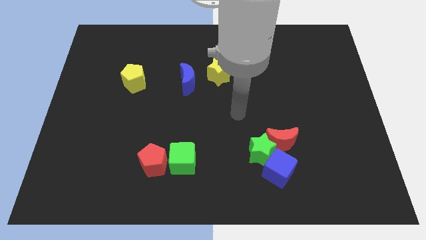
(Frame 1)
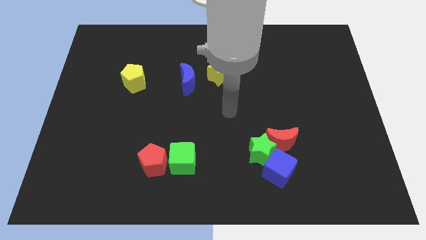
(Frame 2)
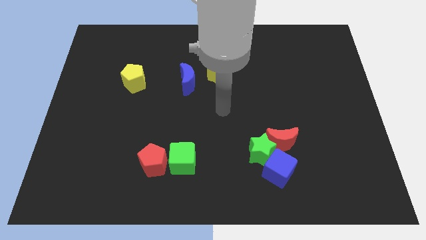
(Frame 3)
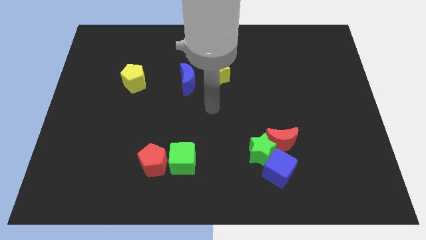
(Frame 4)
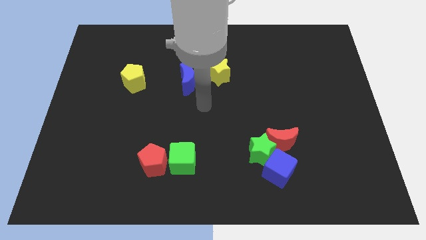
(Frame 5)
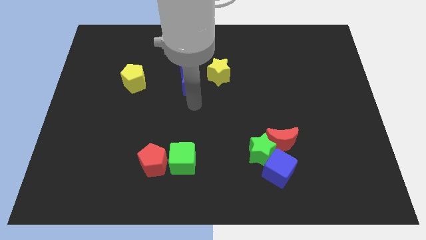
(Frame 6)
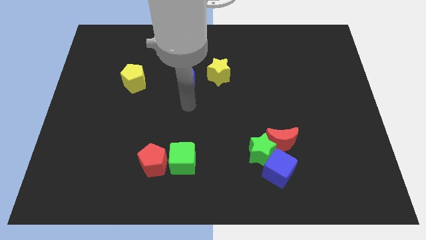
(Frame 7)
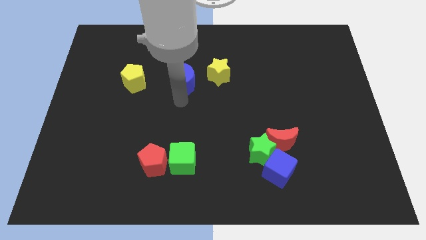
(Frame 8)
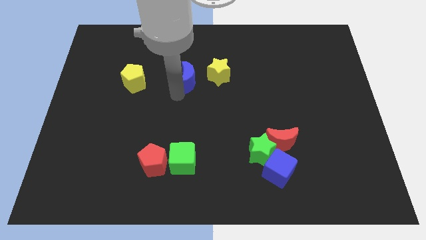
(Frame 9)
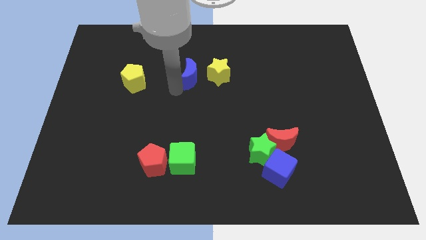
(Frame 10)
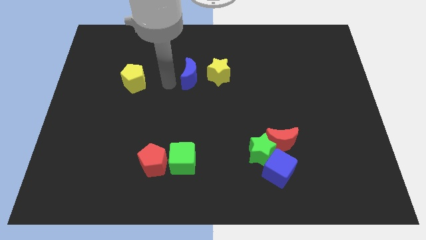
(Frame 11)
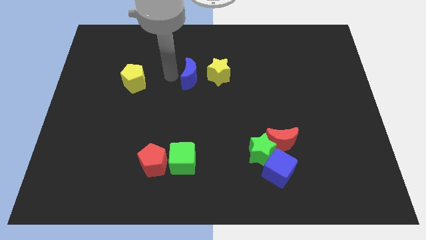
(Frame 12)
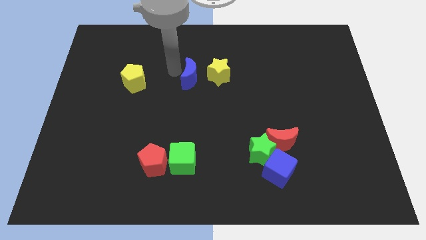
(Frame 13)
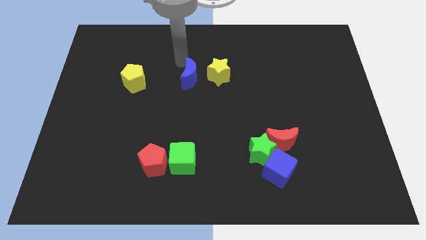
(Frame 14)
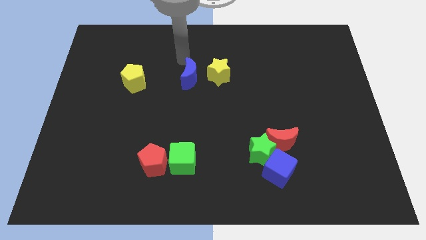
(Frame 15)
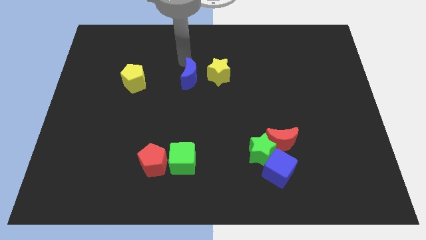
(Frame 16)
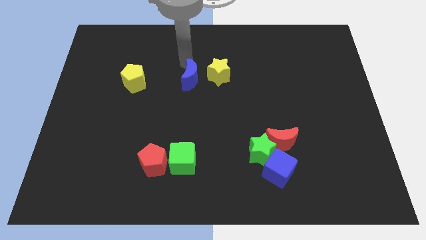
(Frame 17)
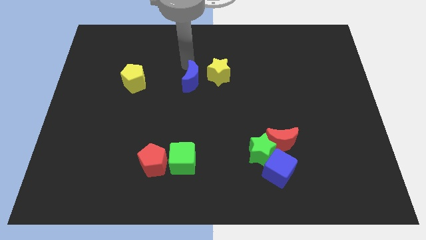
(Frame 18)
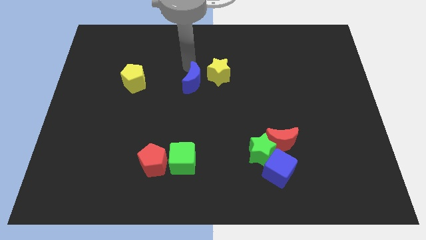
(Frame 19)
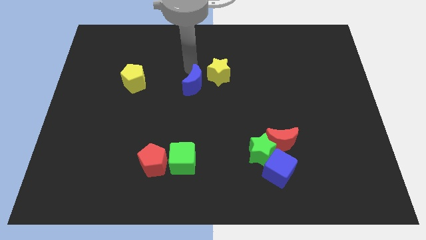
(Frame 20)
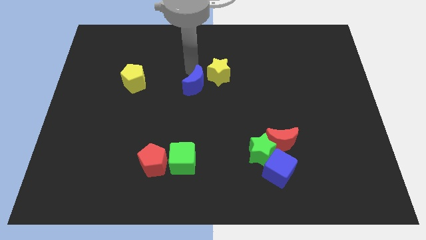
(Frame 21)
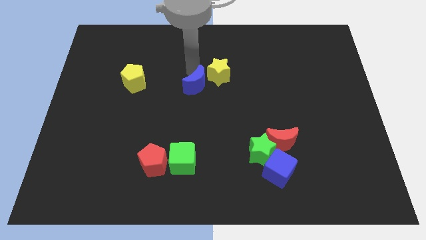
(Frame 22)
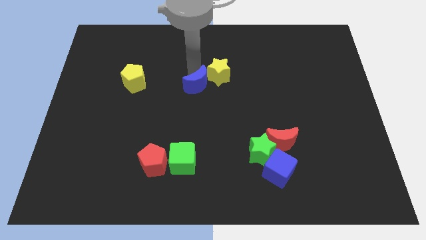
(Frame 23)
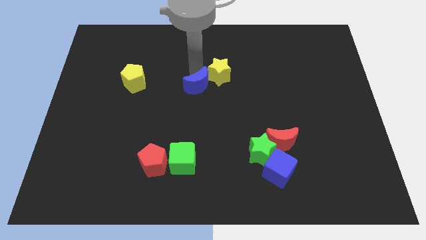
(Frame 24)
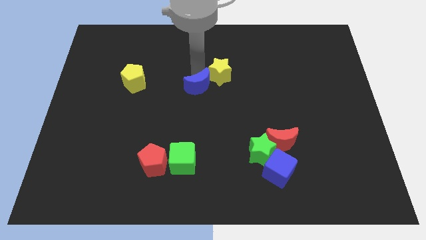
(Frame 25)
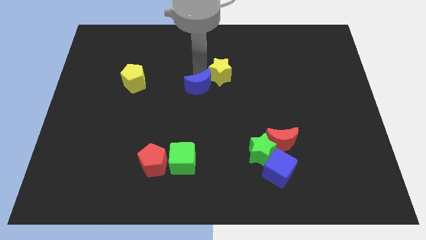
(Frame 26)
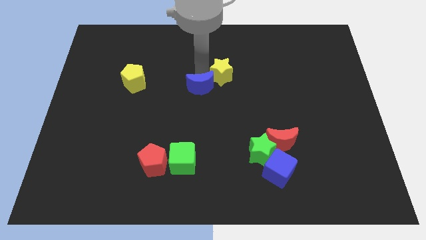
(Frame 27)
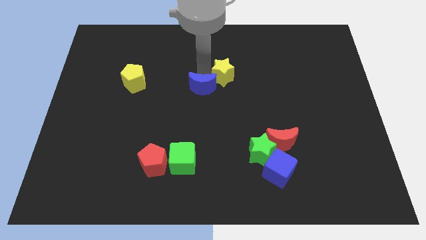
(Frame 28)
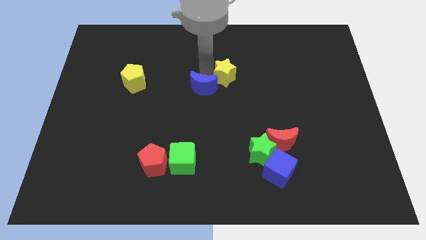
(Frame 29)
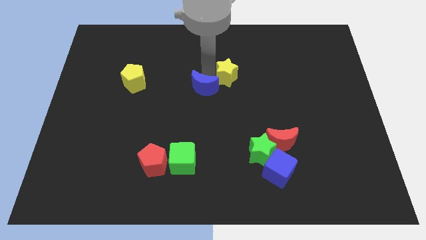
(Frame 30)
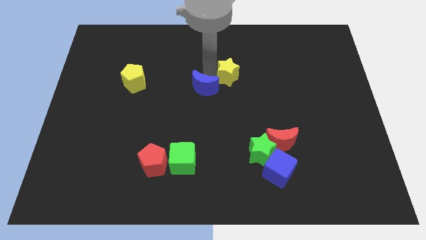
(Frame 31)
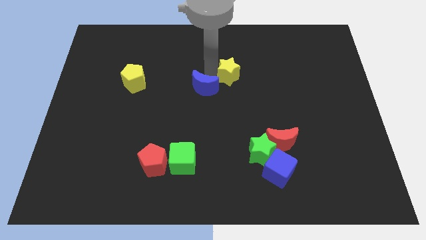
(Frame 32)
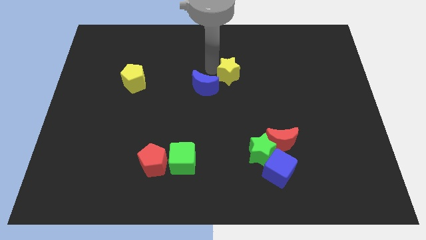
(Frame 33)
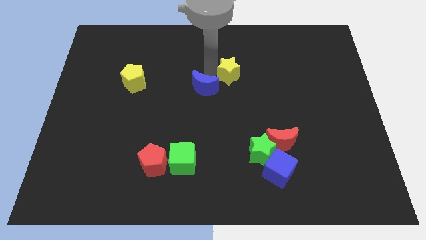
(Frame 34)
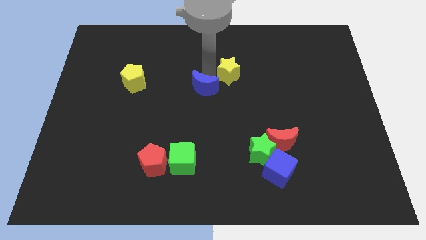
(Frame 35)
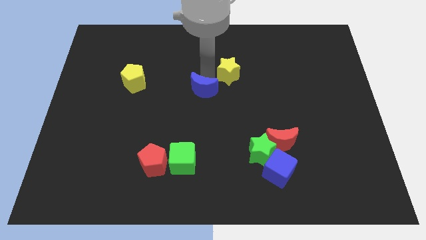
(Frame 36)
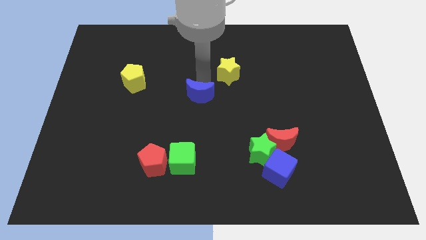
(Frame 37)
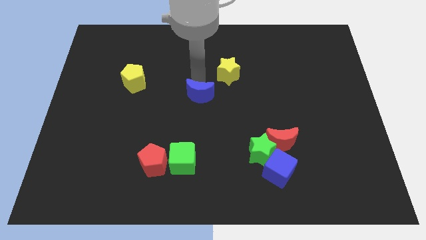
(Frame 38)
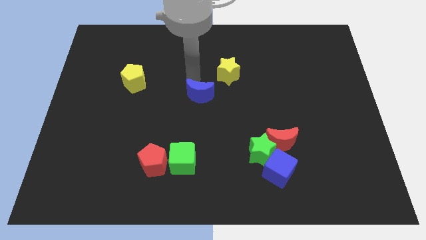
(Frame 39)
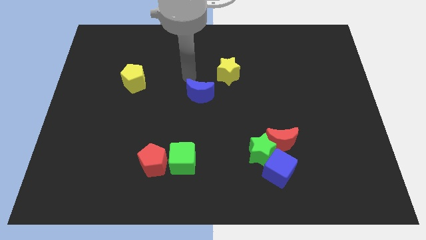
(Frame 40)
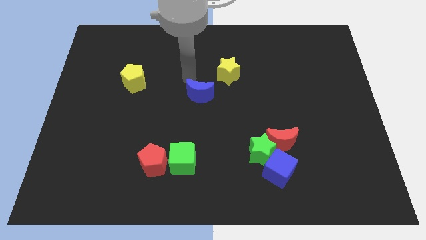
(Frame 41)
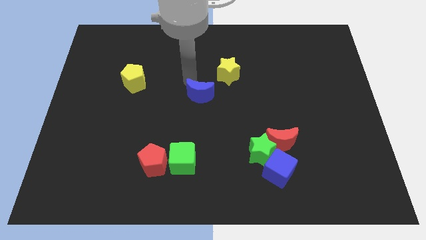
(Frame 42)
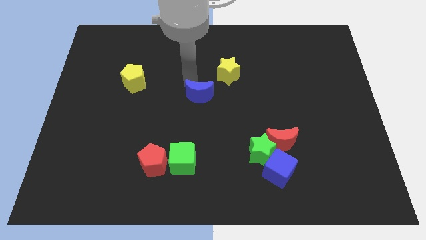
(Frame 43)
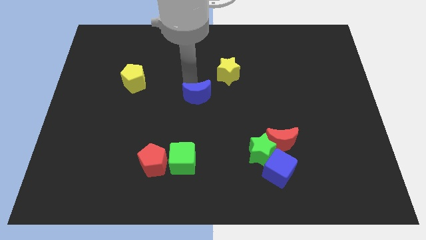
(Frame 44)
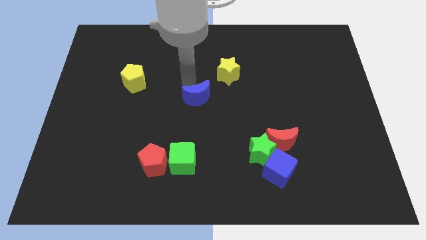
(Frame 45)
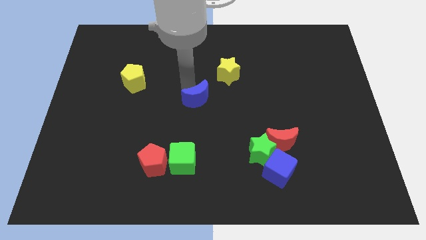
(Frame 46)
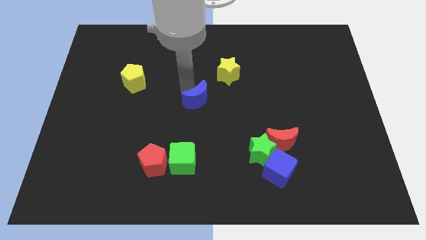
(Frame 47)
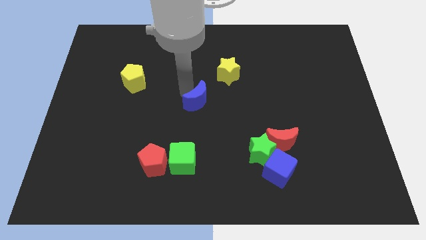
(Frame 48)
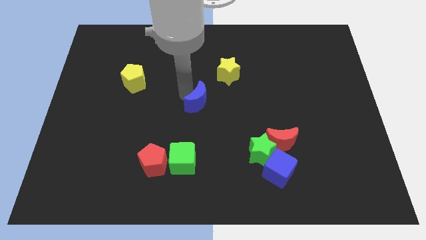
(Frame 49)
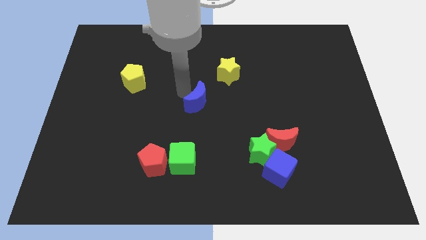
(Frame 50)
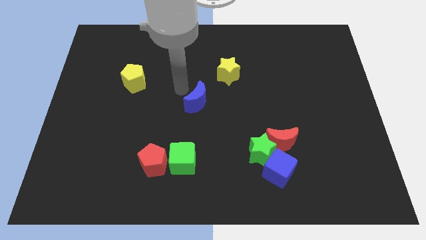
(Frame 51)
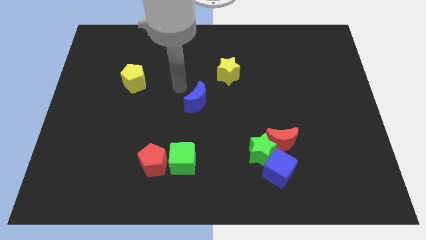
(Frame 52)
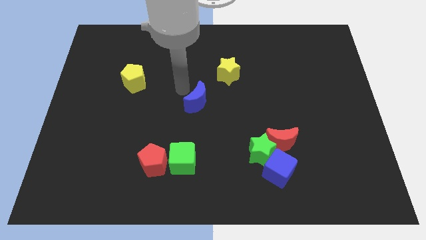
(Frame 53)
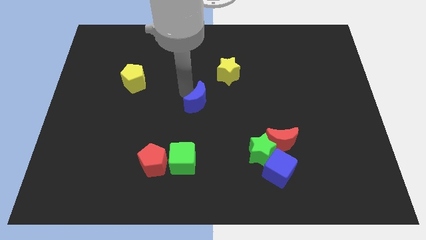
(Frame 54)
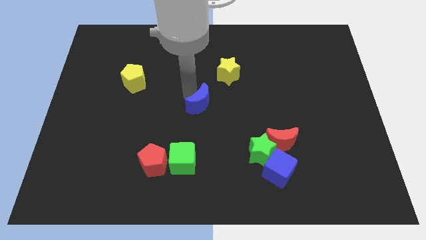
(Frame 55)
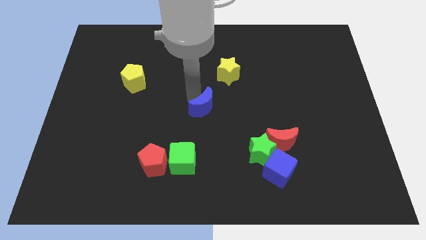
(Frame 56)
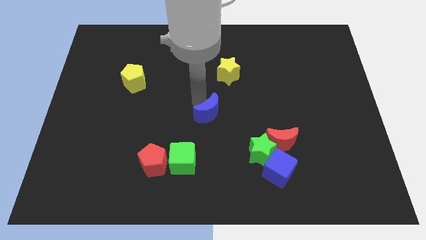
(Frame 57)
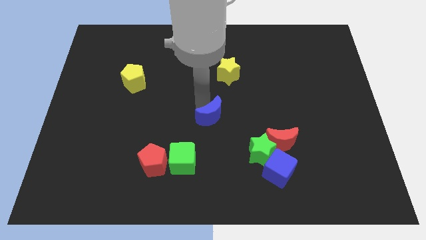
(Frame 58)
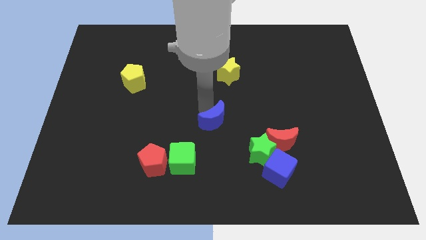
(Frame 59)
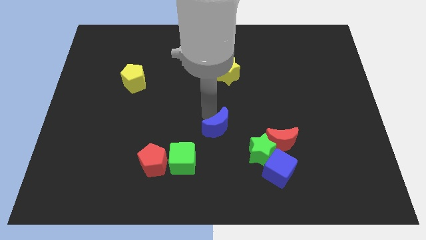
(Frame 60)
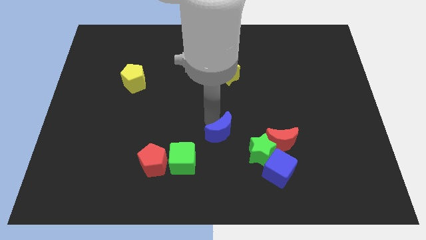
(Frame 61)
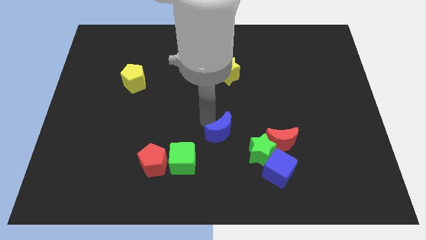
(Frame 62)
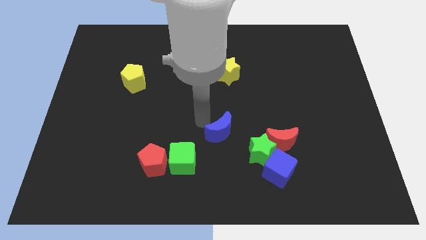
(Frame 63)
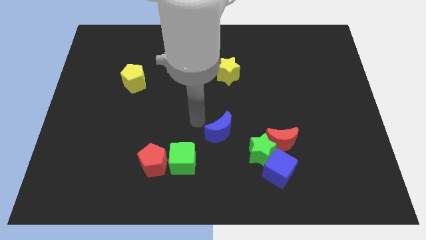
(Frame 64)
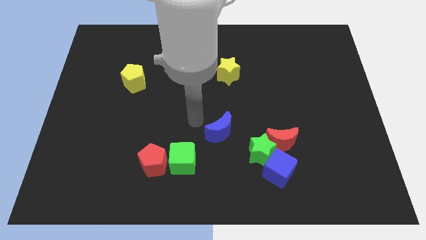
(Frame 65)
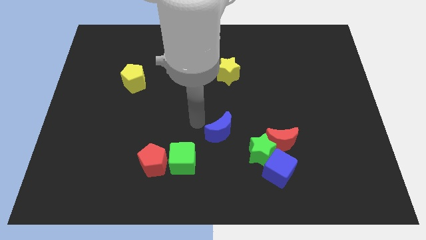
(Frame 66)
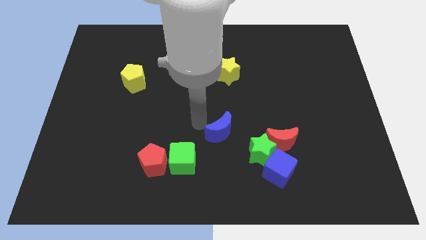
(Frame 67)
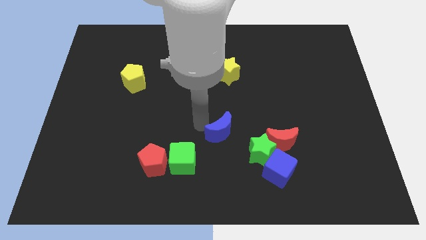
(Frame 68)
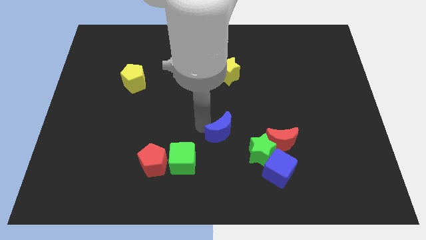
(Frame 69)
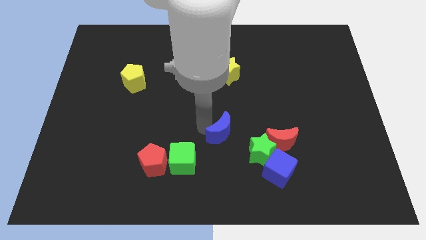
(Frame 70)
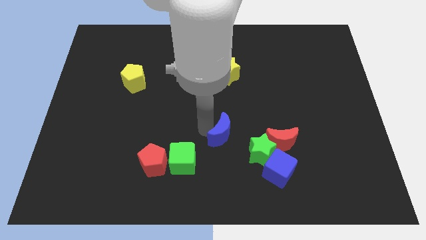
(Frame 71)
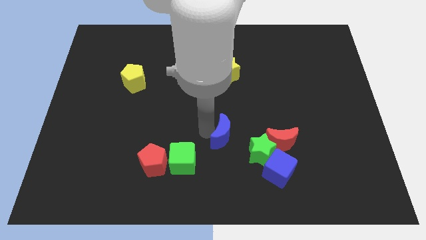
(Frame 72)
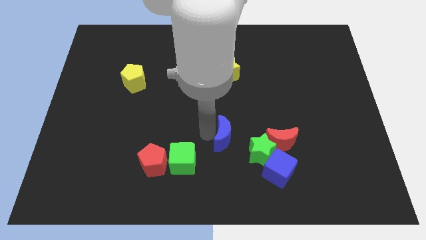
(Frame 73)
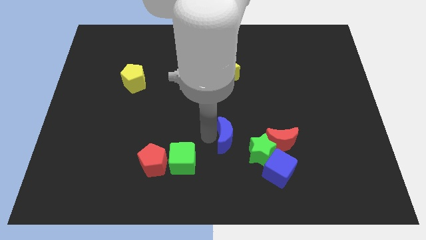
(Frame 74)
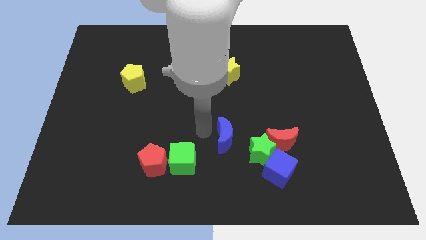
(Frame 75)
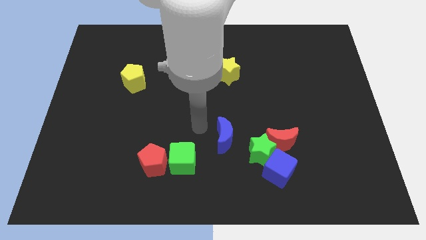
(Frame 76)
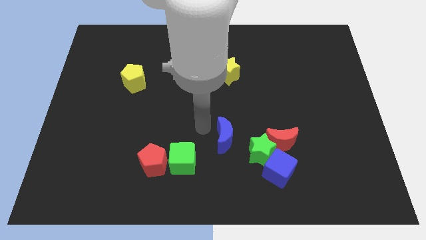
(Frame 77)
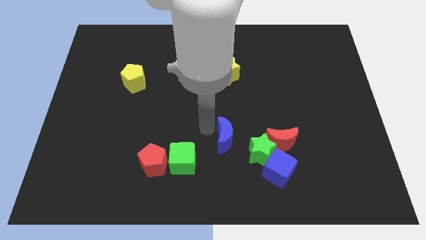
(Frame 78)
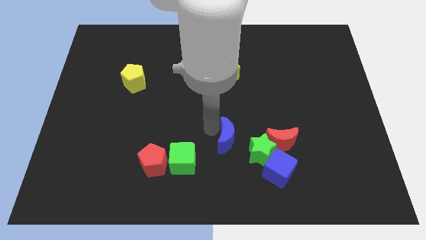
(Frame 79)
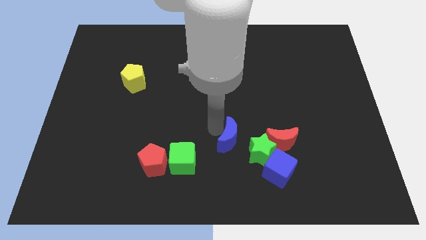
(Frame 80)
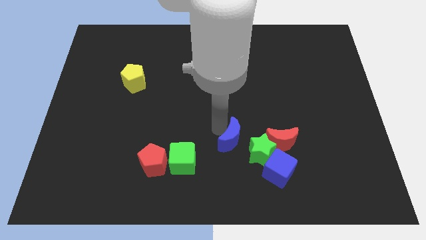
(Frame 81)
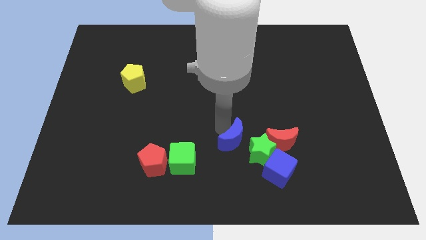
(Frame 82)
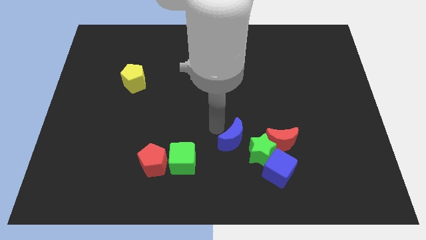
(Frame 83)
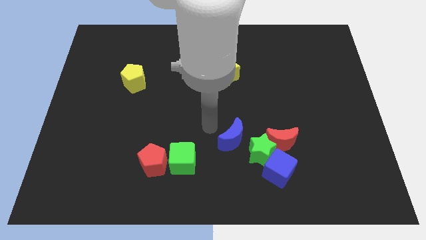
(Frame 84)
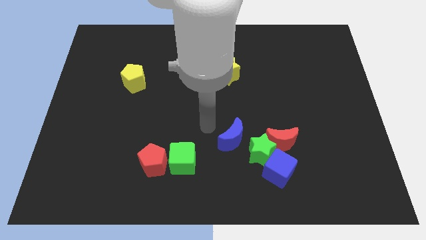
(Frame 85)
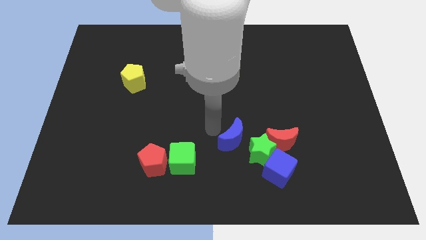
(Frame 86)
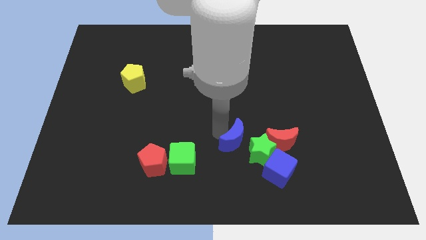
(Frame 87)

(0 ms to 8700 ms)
slide the blue moon to the green star
